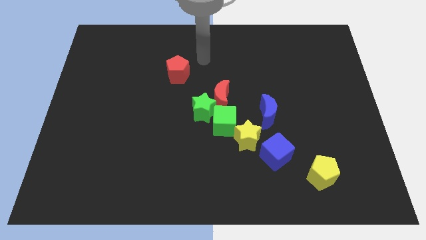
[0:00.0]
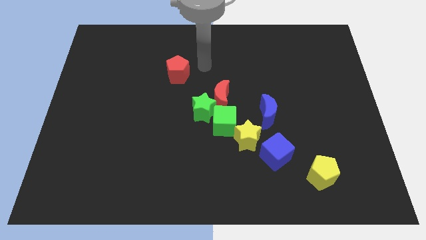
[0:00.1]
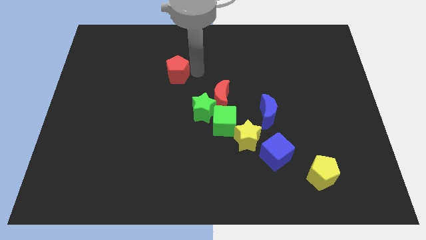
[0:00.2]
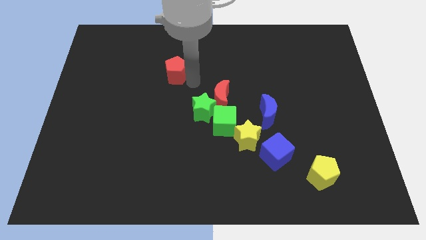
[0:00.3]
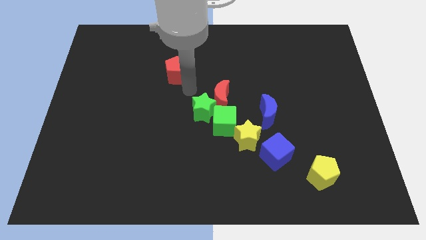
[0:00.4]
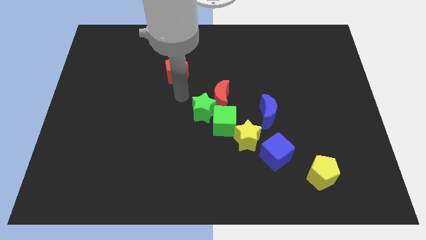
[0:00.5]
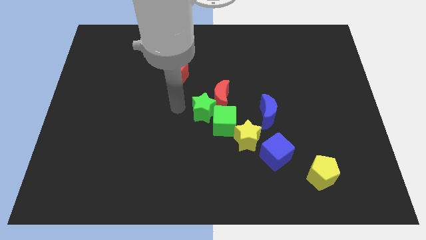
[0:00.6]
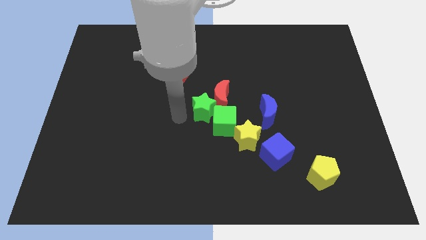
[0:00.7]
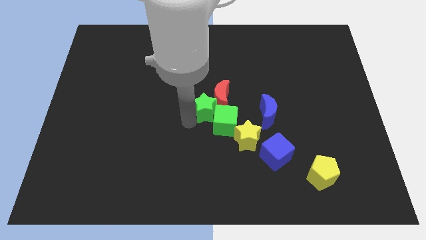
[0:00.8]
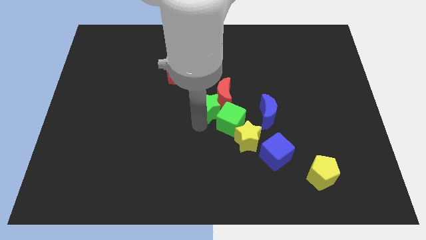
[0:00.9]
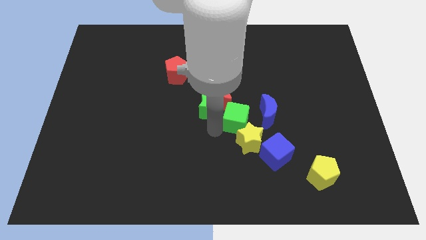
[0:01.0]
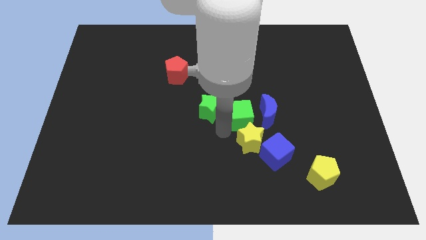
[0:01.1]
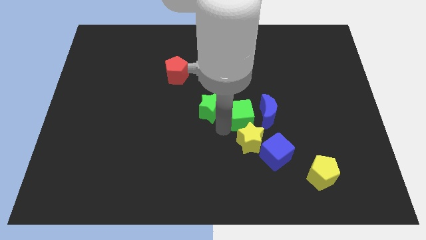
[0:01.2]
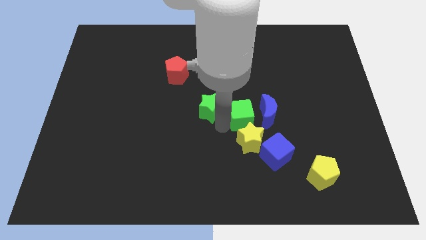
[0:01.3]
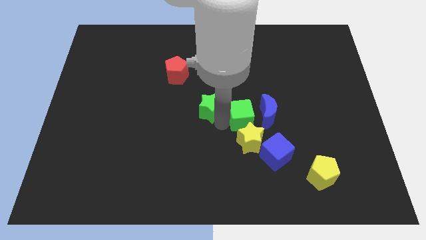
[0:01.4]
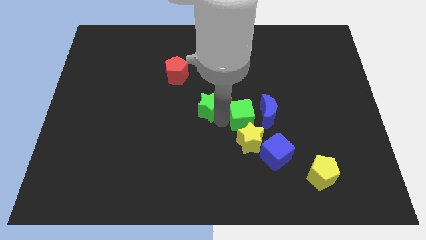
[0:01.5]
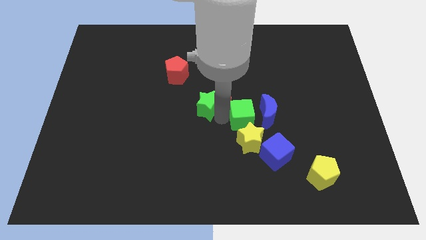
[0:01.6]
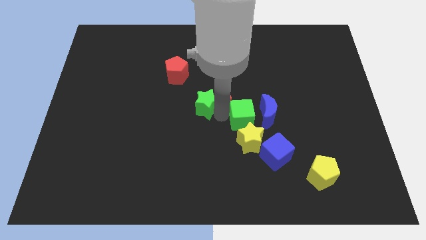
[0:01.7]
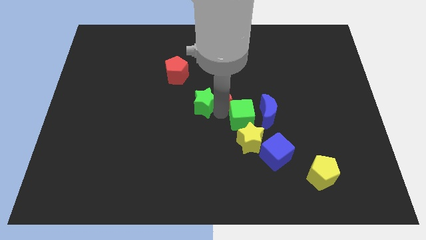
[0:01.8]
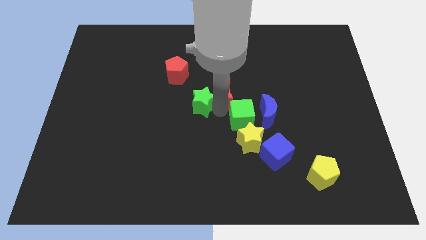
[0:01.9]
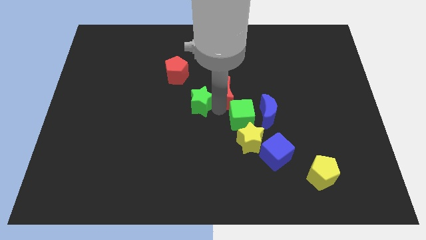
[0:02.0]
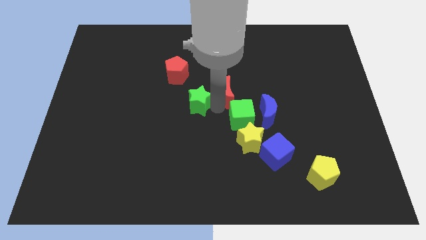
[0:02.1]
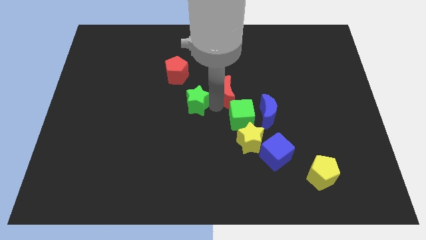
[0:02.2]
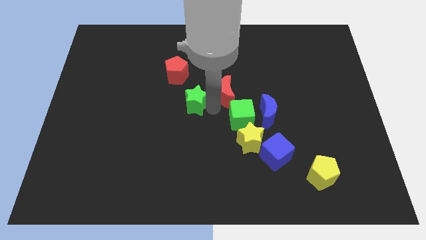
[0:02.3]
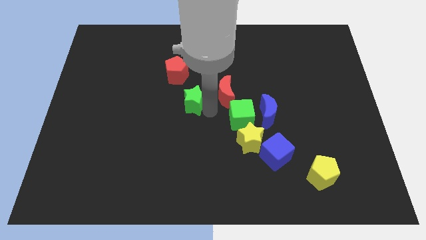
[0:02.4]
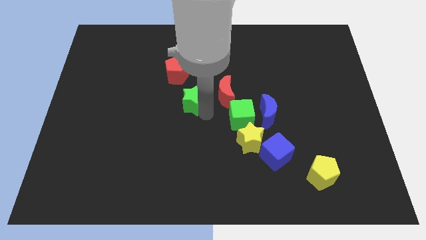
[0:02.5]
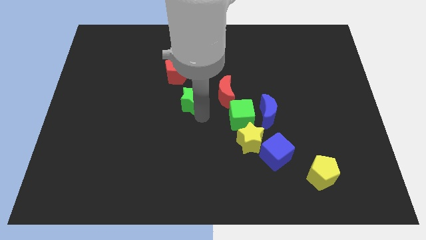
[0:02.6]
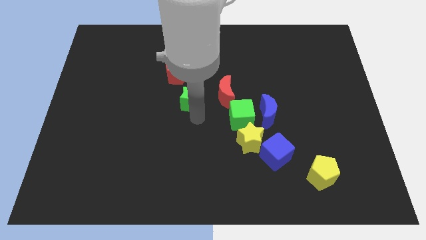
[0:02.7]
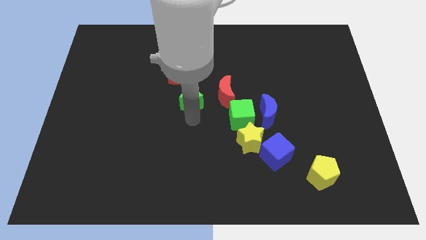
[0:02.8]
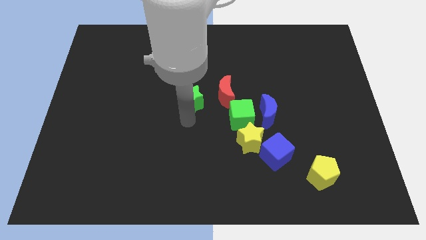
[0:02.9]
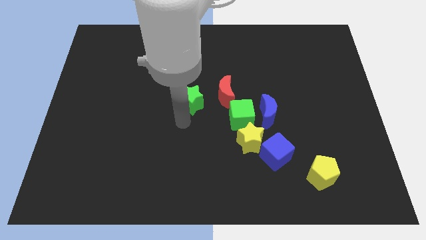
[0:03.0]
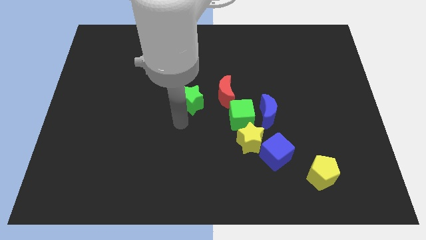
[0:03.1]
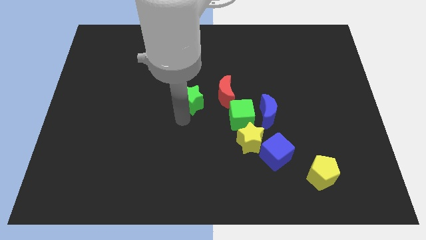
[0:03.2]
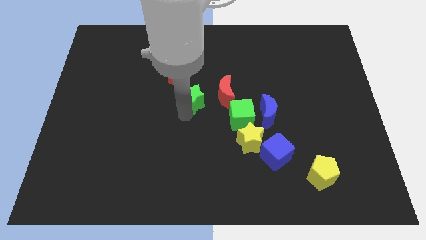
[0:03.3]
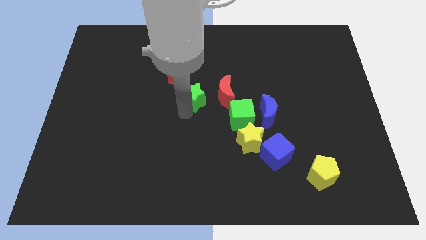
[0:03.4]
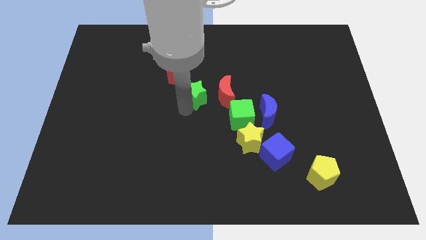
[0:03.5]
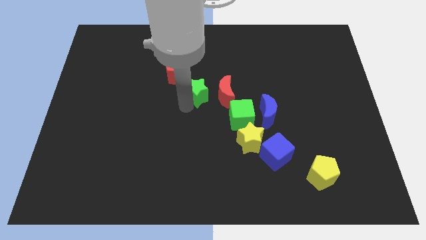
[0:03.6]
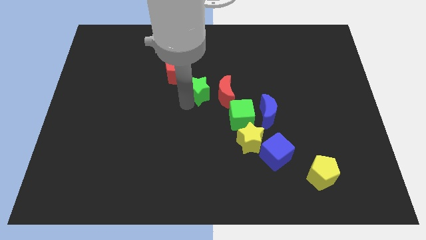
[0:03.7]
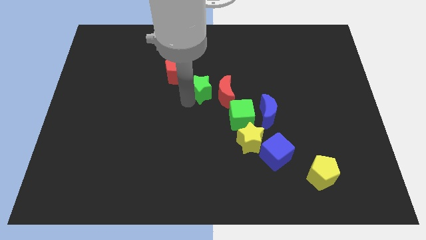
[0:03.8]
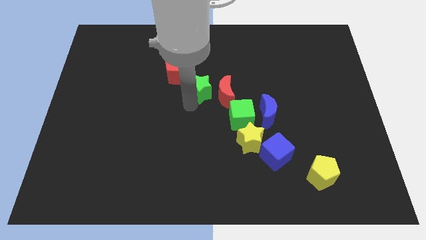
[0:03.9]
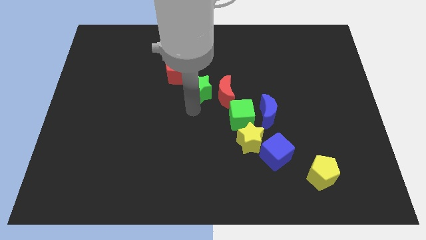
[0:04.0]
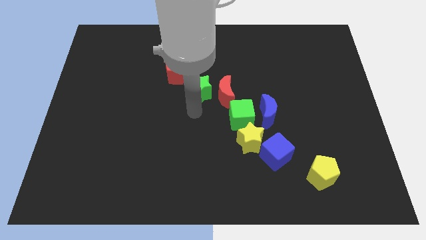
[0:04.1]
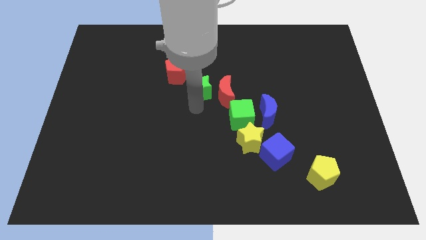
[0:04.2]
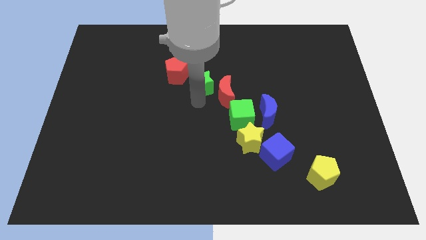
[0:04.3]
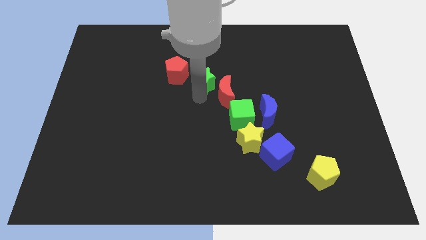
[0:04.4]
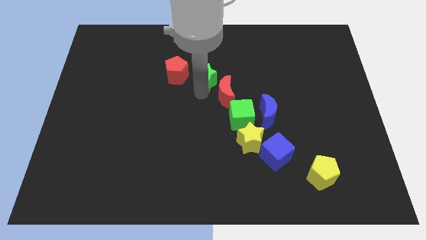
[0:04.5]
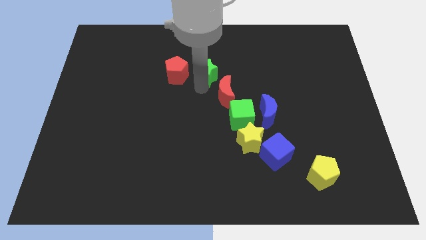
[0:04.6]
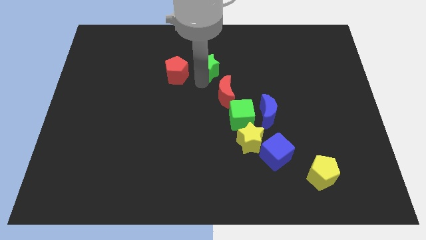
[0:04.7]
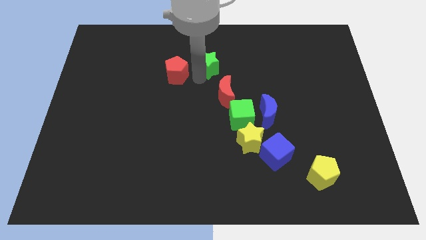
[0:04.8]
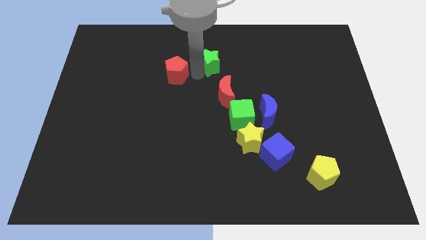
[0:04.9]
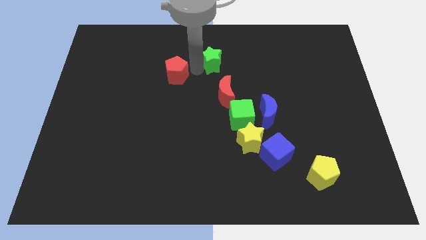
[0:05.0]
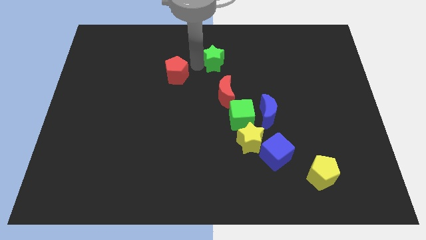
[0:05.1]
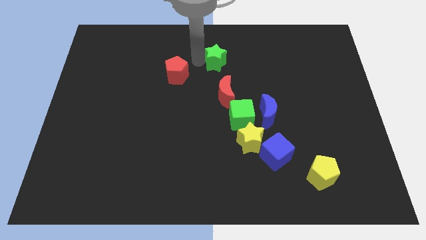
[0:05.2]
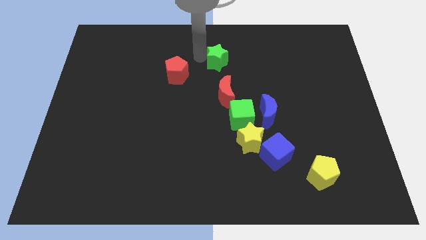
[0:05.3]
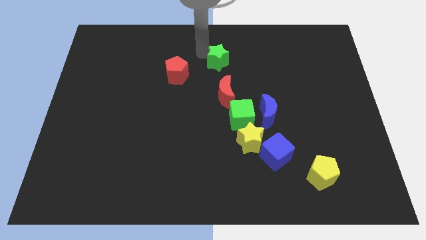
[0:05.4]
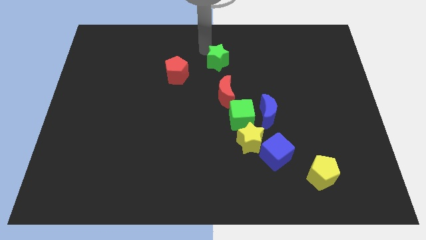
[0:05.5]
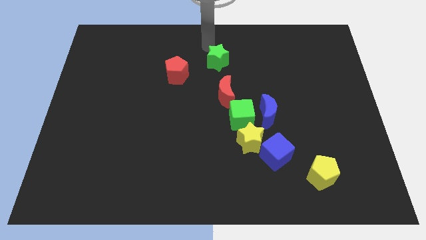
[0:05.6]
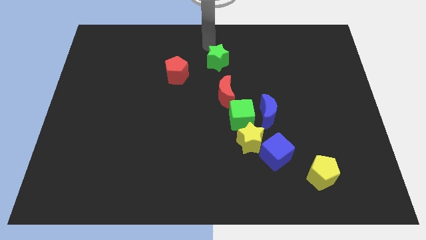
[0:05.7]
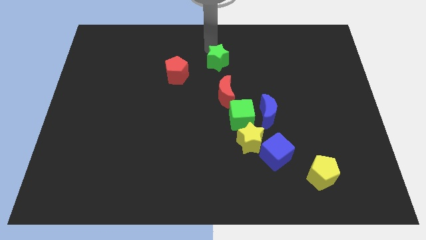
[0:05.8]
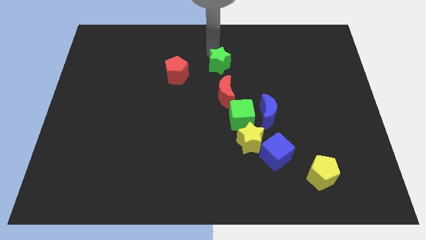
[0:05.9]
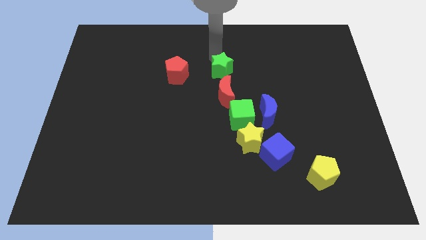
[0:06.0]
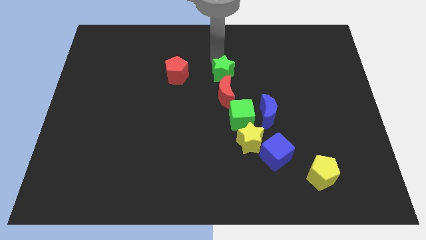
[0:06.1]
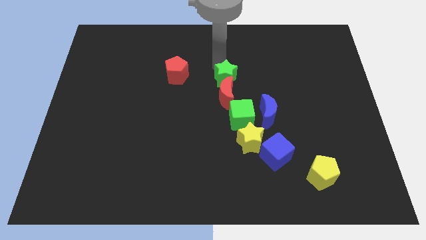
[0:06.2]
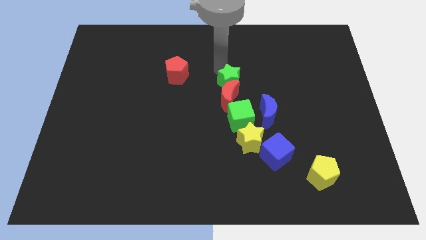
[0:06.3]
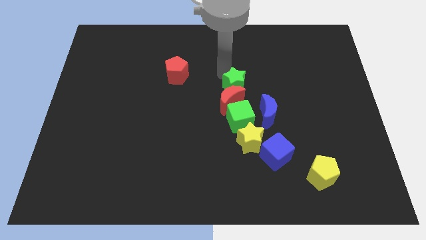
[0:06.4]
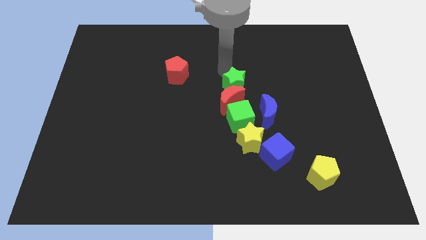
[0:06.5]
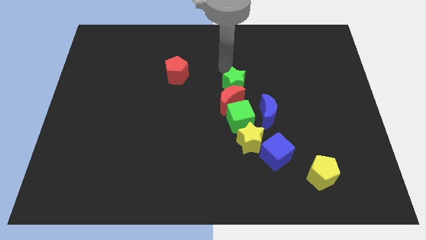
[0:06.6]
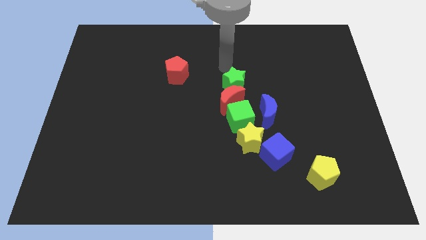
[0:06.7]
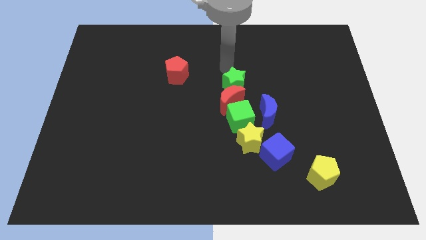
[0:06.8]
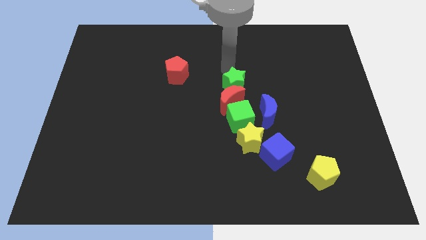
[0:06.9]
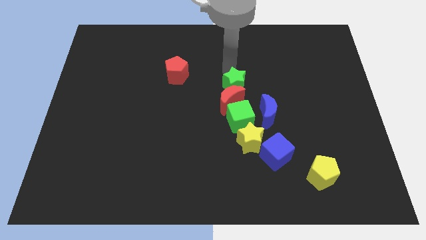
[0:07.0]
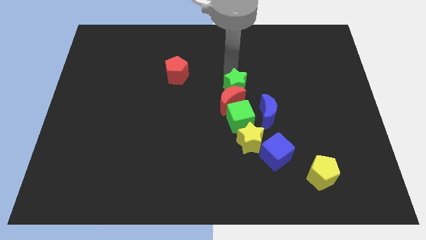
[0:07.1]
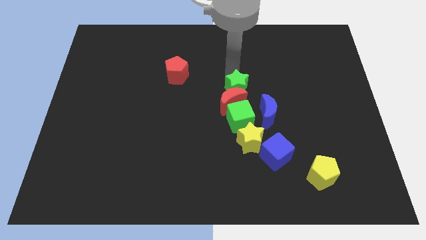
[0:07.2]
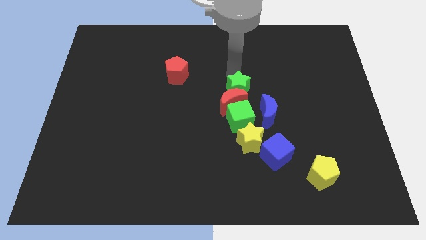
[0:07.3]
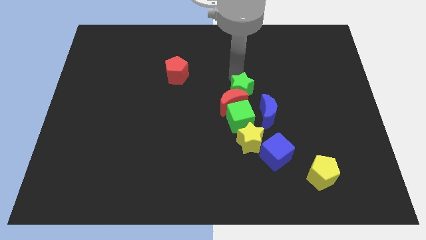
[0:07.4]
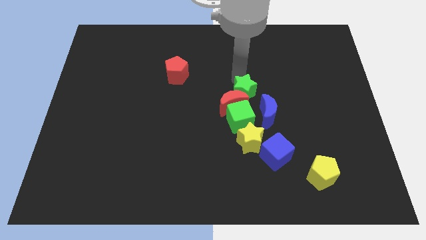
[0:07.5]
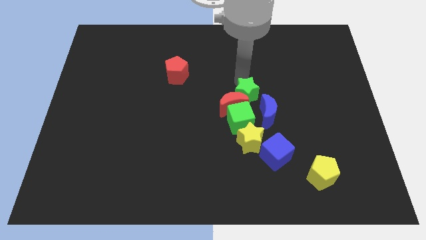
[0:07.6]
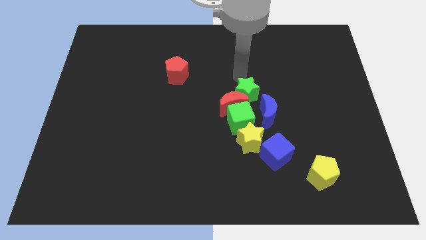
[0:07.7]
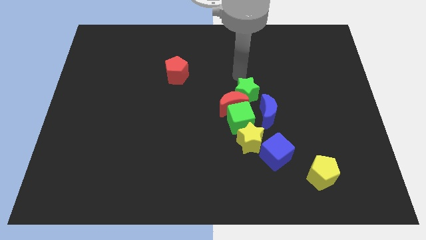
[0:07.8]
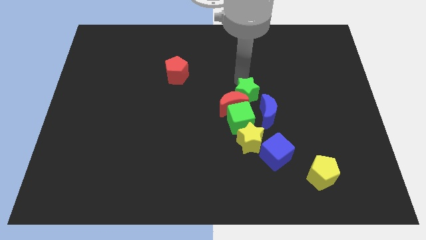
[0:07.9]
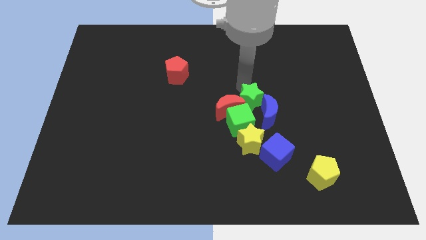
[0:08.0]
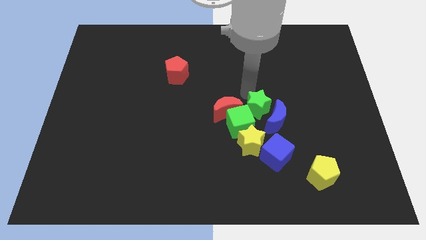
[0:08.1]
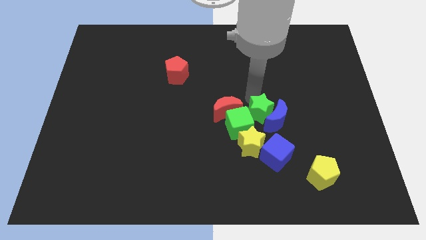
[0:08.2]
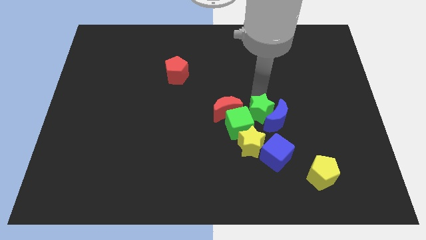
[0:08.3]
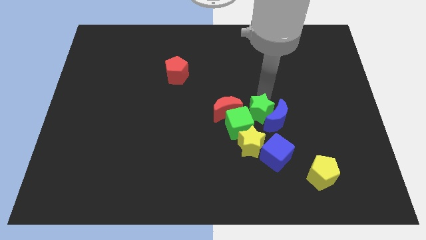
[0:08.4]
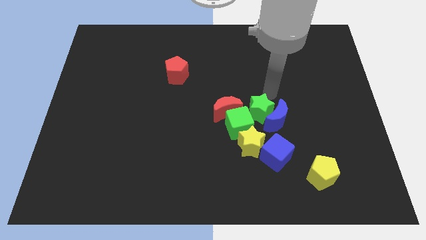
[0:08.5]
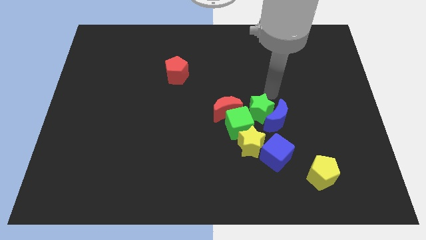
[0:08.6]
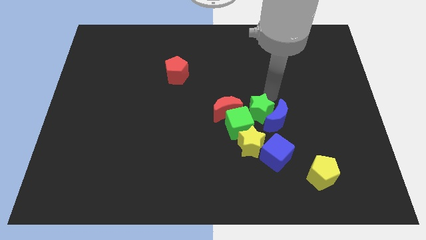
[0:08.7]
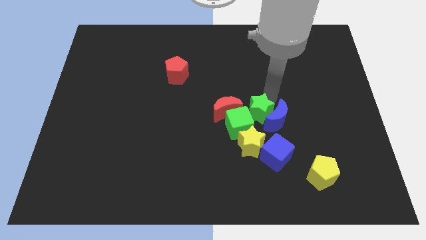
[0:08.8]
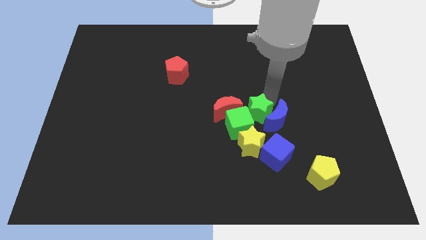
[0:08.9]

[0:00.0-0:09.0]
slide the green star to the bottom right side of the red moon
